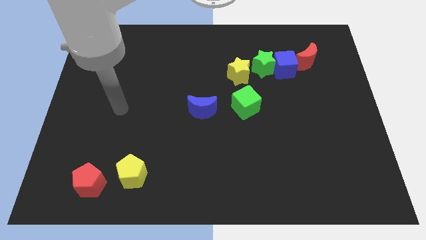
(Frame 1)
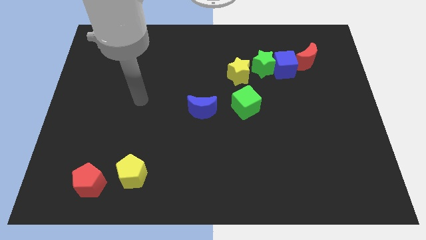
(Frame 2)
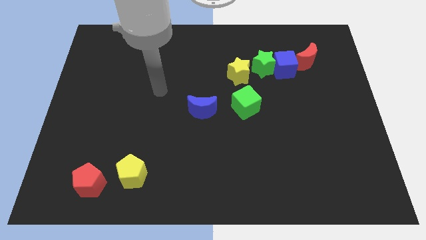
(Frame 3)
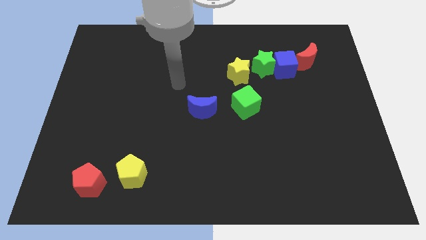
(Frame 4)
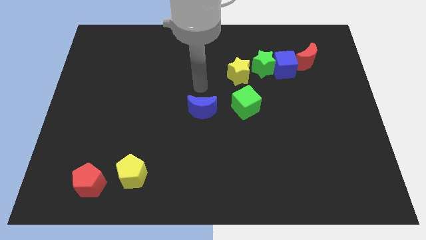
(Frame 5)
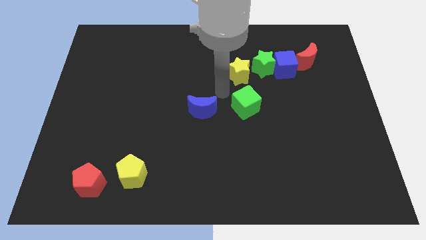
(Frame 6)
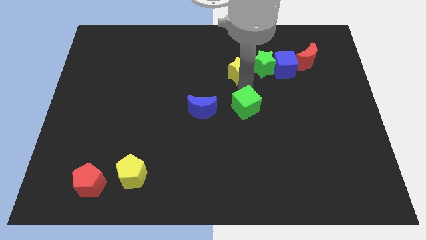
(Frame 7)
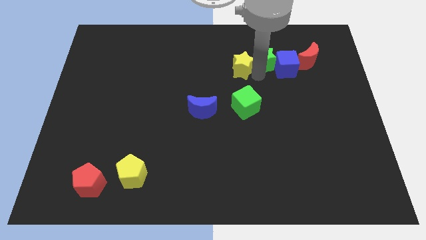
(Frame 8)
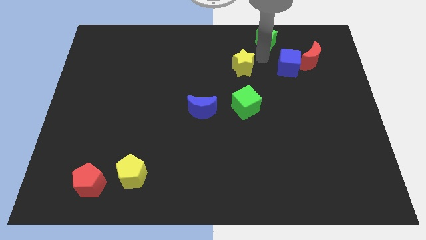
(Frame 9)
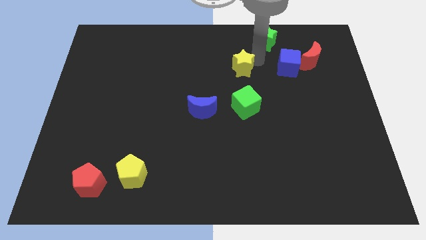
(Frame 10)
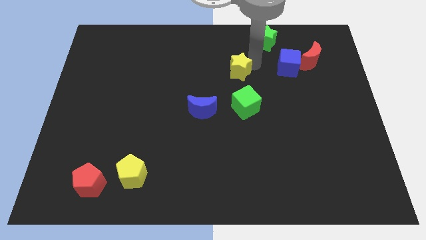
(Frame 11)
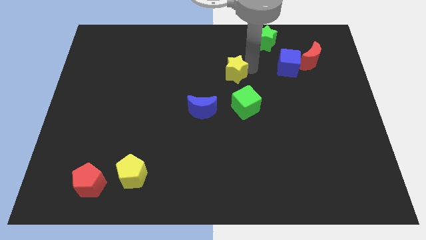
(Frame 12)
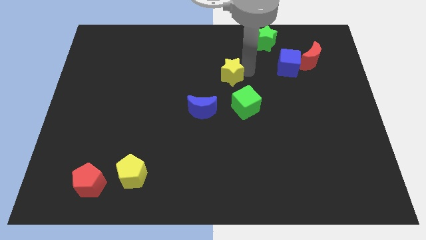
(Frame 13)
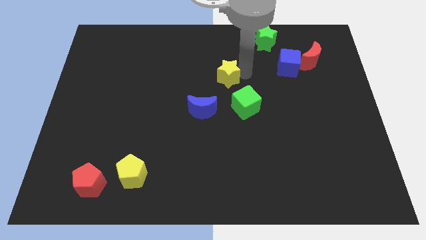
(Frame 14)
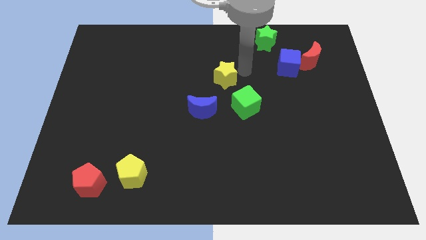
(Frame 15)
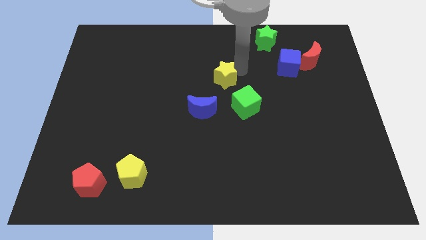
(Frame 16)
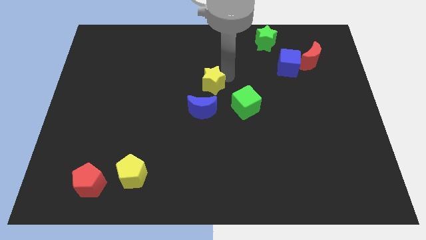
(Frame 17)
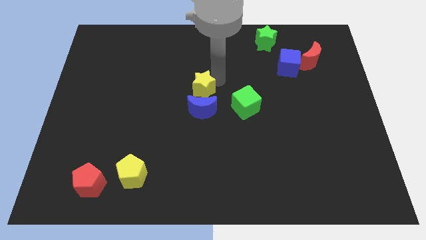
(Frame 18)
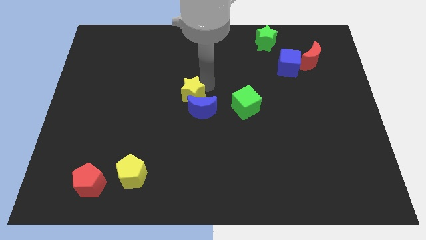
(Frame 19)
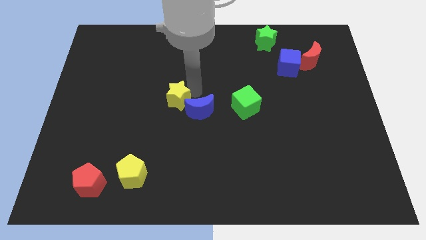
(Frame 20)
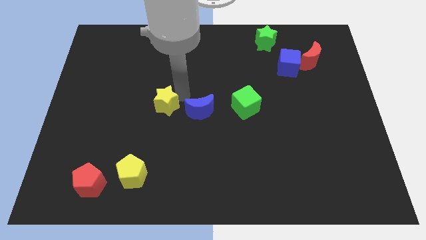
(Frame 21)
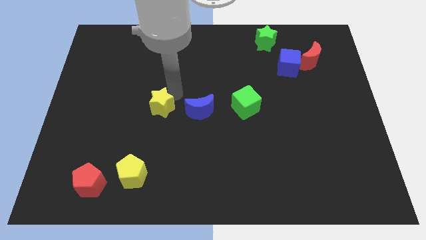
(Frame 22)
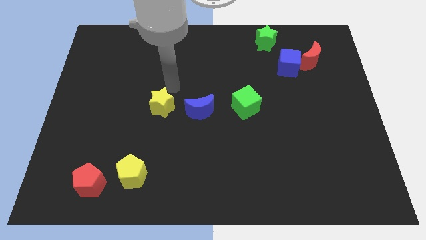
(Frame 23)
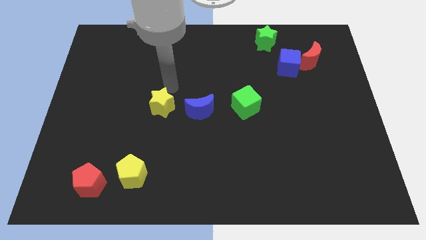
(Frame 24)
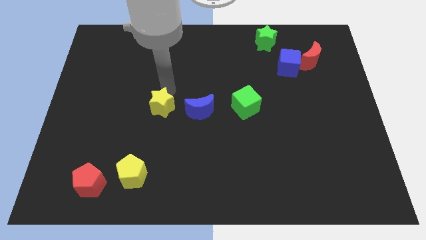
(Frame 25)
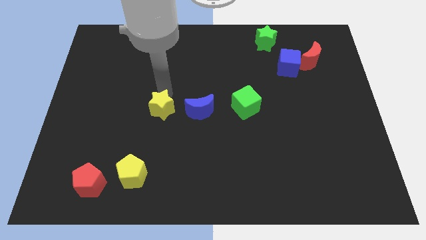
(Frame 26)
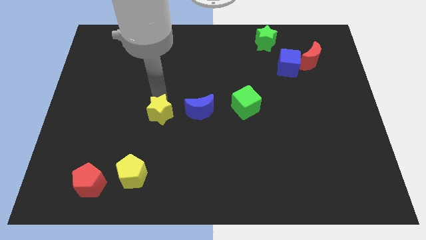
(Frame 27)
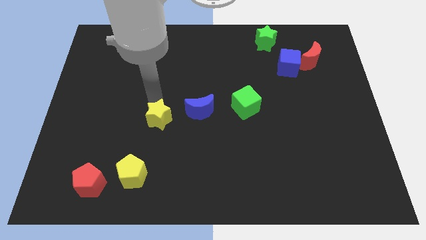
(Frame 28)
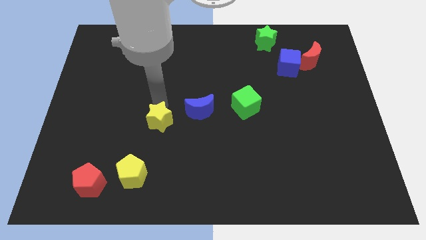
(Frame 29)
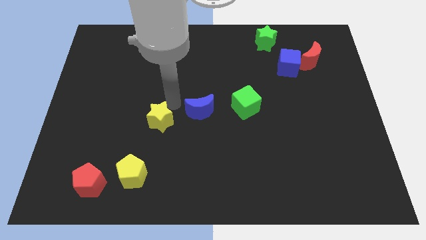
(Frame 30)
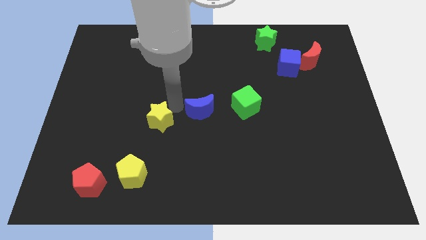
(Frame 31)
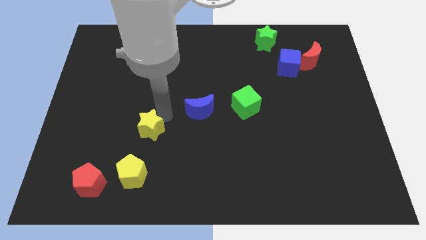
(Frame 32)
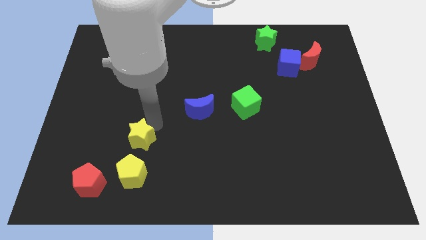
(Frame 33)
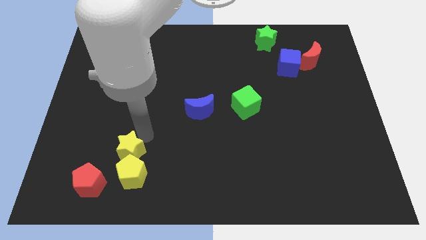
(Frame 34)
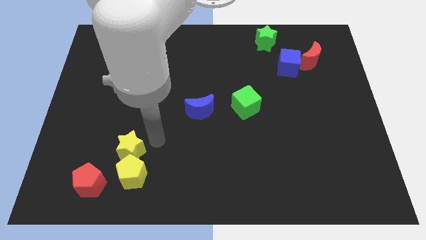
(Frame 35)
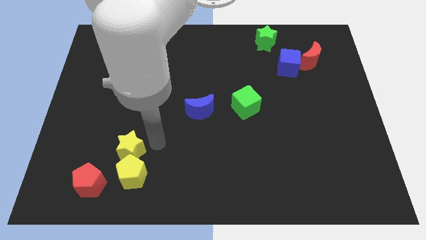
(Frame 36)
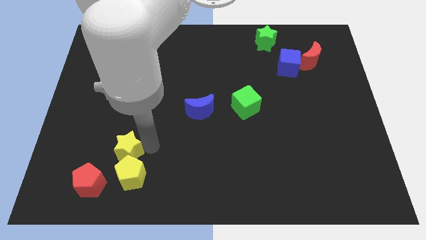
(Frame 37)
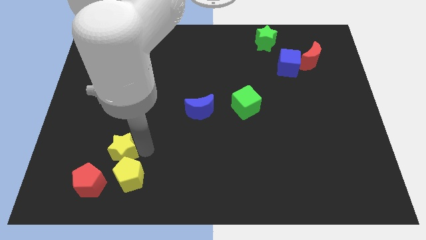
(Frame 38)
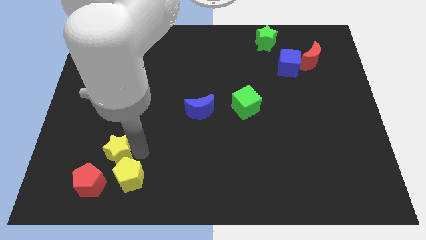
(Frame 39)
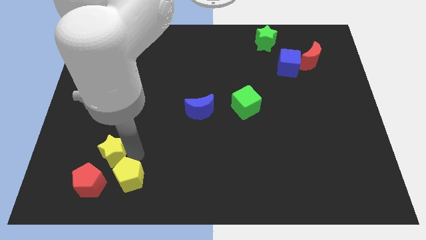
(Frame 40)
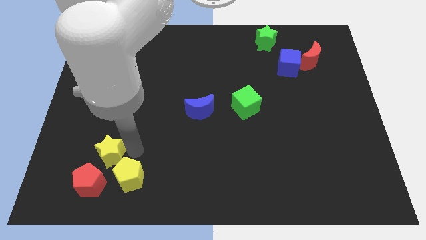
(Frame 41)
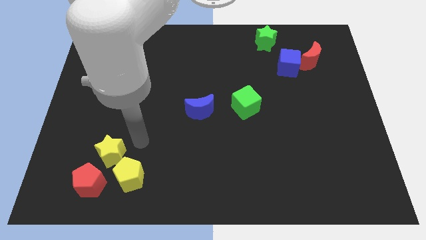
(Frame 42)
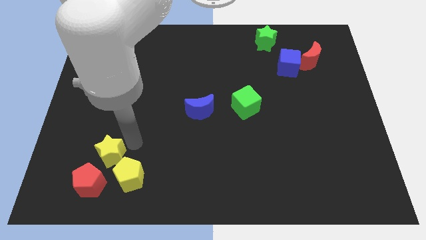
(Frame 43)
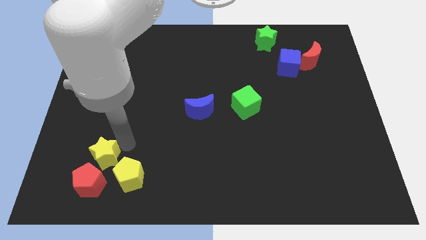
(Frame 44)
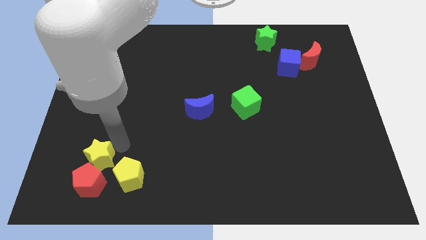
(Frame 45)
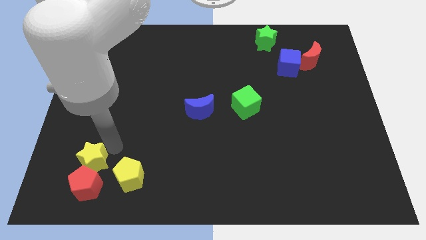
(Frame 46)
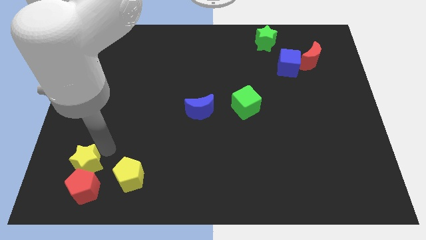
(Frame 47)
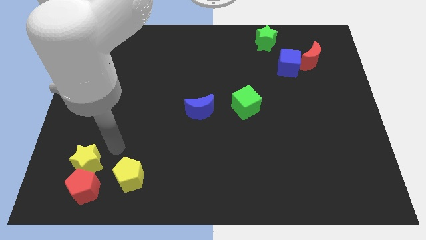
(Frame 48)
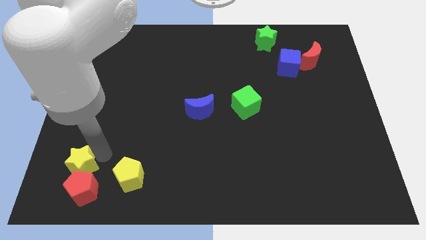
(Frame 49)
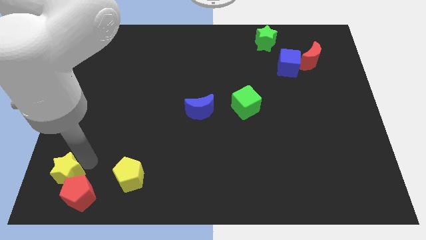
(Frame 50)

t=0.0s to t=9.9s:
put the yellow star to the bottom left

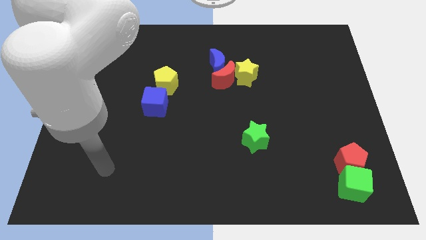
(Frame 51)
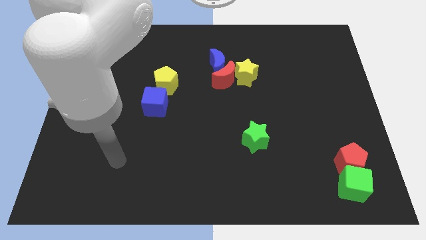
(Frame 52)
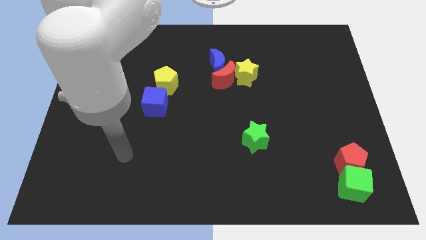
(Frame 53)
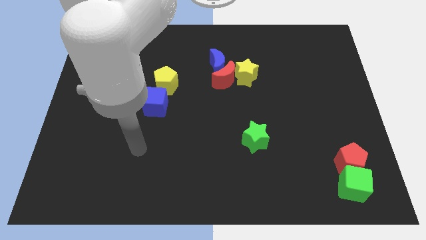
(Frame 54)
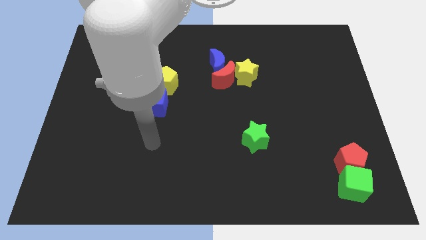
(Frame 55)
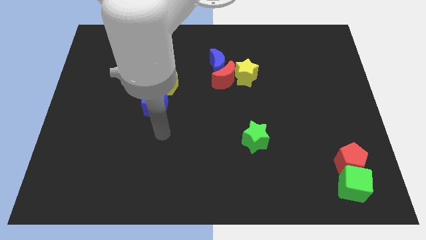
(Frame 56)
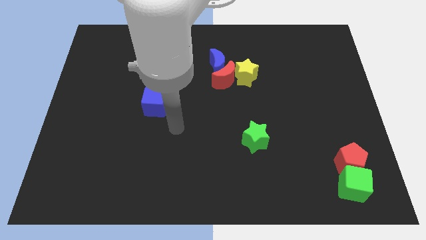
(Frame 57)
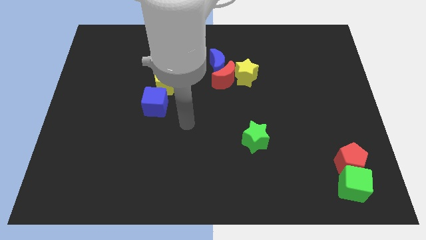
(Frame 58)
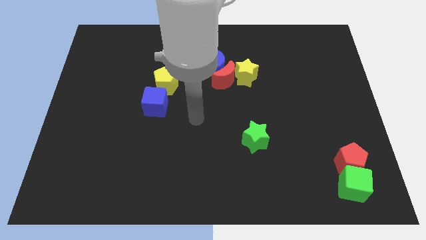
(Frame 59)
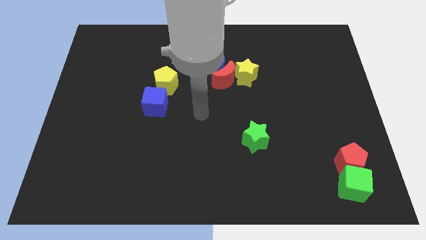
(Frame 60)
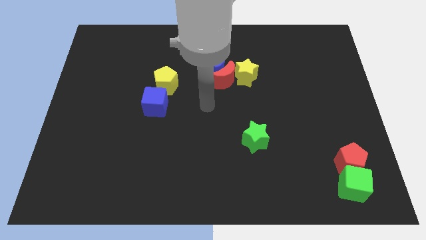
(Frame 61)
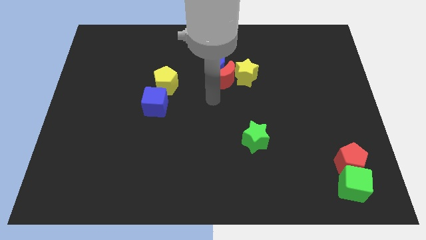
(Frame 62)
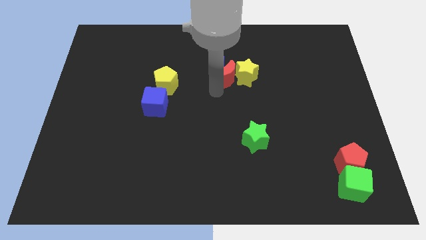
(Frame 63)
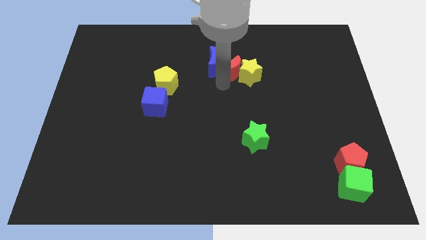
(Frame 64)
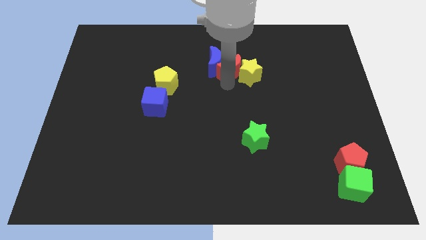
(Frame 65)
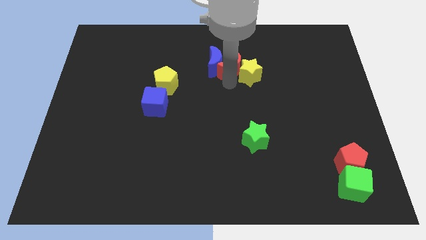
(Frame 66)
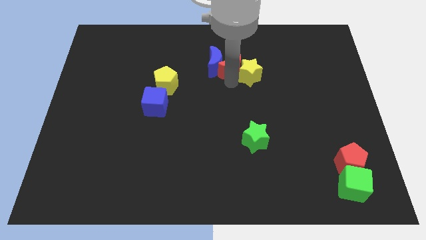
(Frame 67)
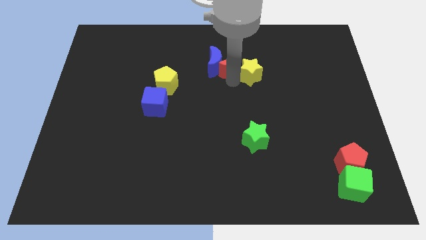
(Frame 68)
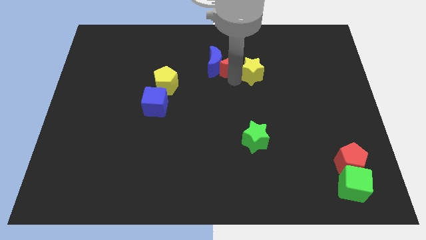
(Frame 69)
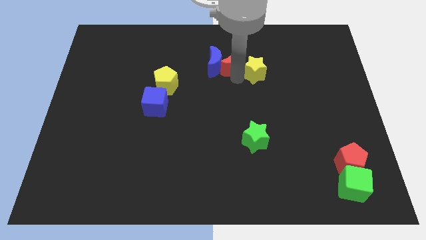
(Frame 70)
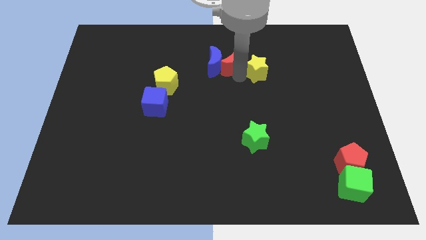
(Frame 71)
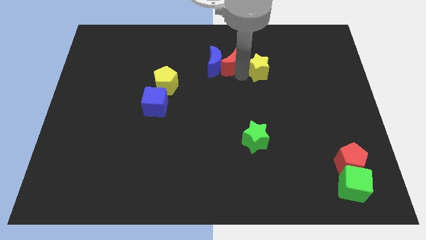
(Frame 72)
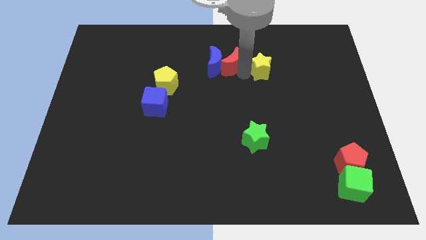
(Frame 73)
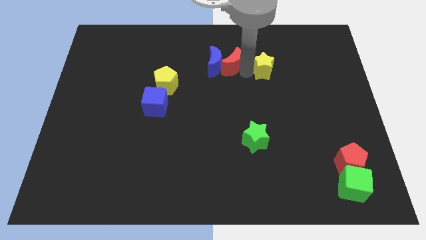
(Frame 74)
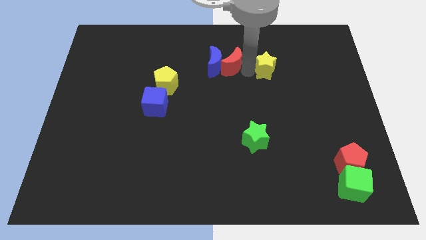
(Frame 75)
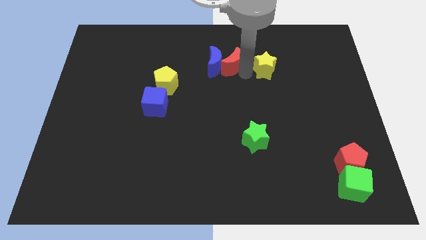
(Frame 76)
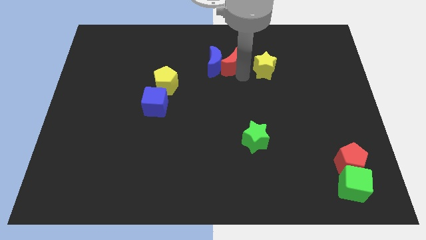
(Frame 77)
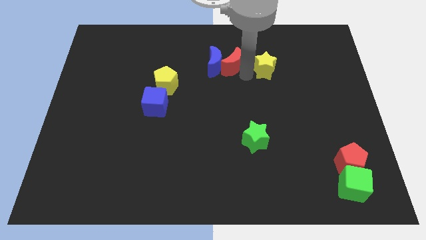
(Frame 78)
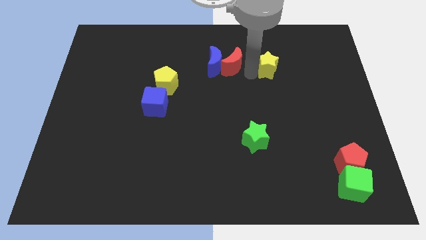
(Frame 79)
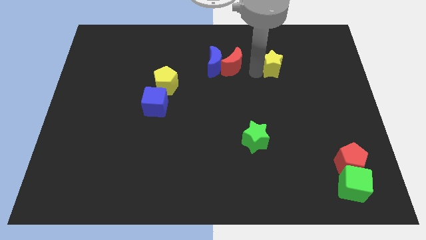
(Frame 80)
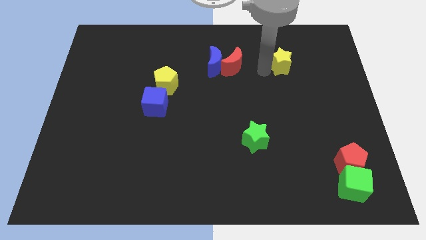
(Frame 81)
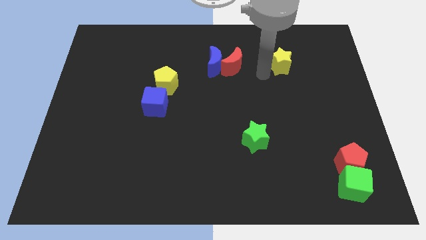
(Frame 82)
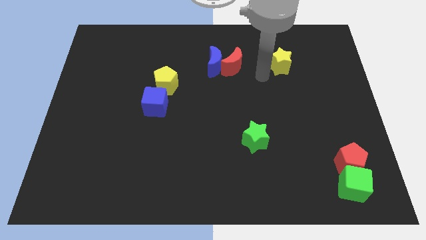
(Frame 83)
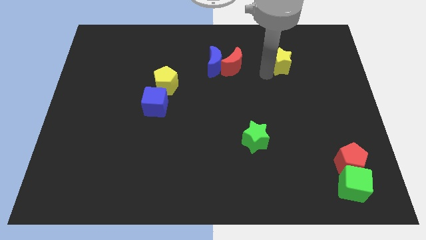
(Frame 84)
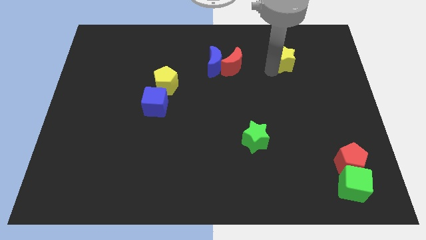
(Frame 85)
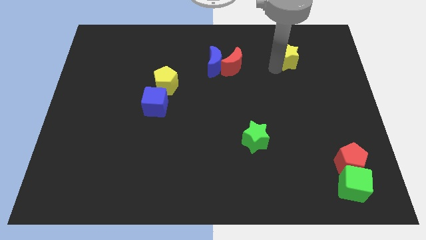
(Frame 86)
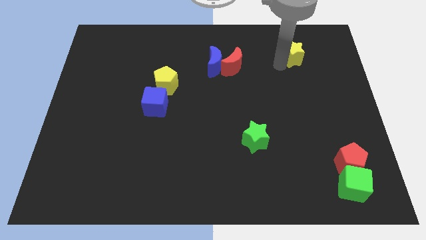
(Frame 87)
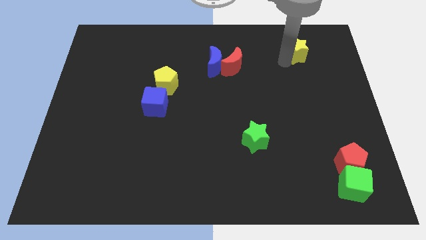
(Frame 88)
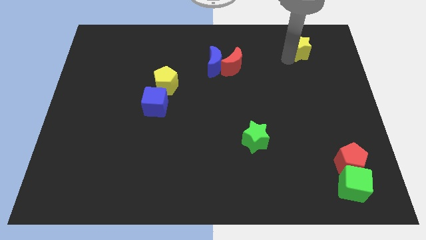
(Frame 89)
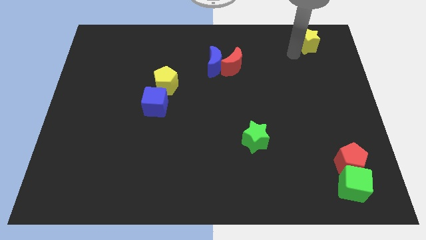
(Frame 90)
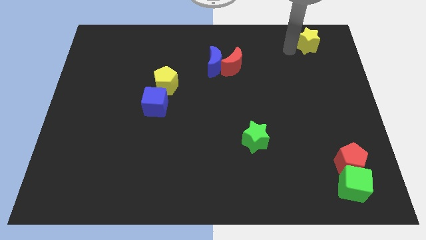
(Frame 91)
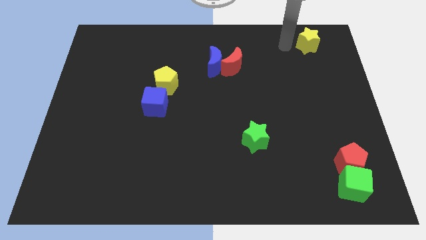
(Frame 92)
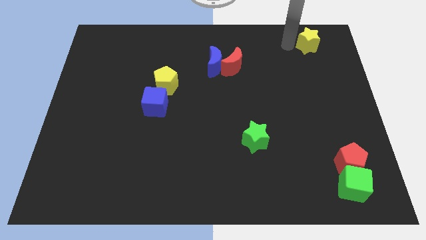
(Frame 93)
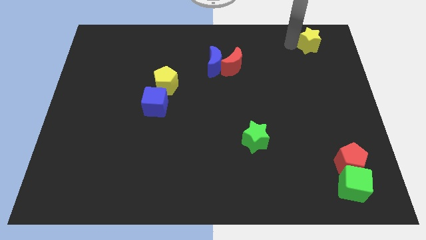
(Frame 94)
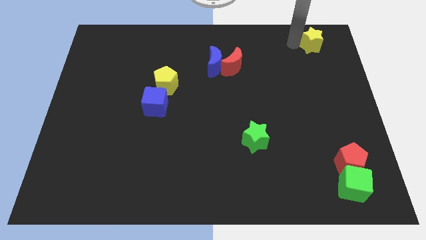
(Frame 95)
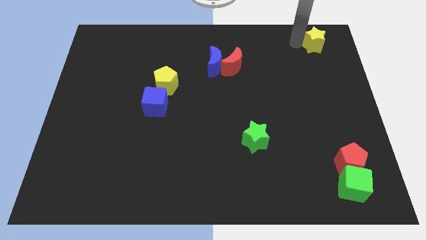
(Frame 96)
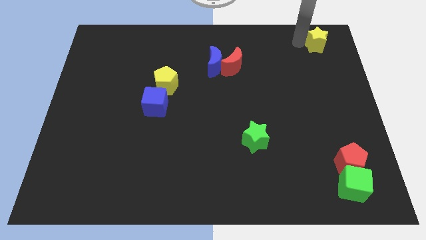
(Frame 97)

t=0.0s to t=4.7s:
slide the yellow star to the upper right corner
